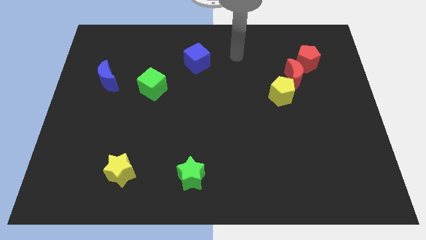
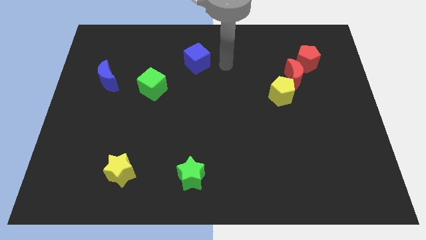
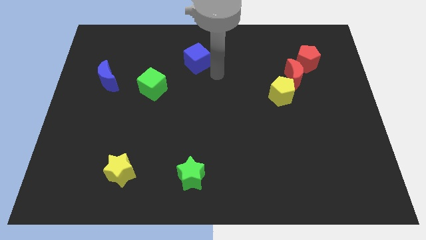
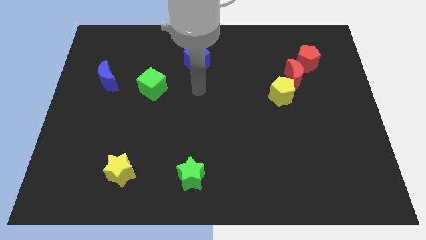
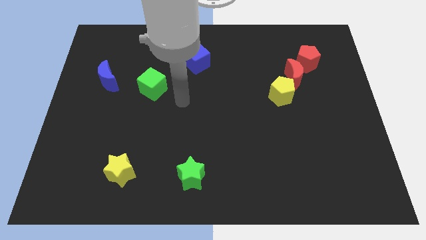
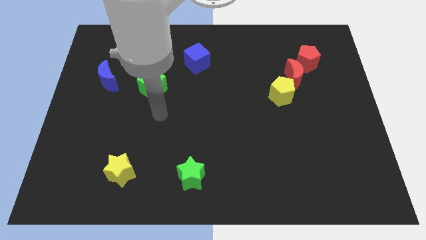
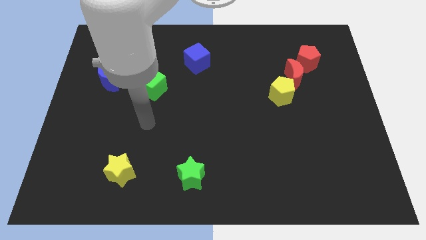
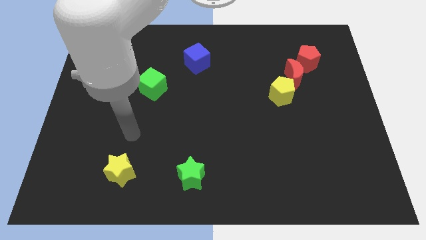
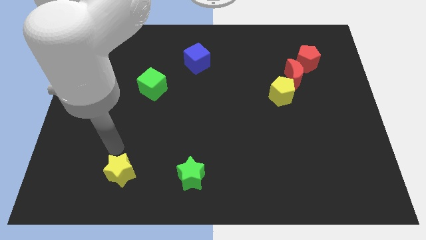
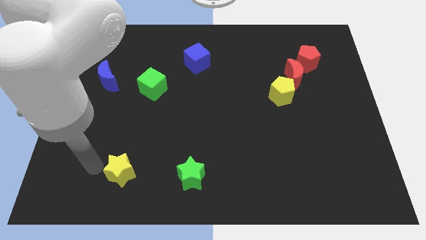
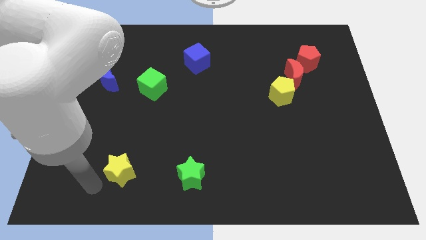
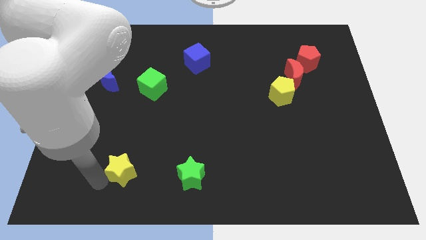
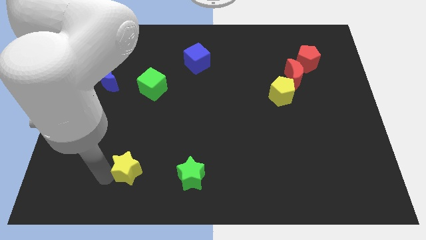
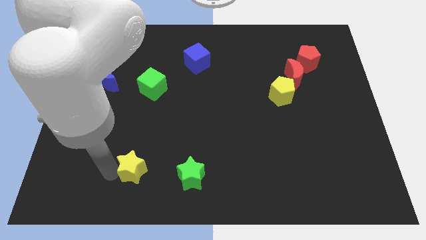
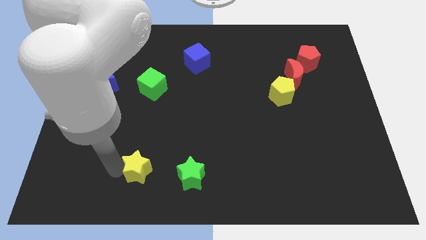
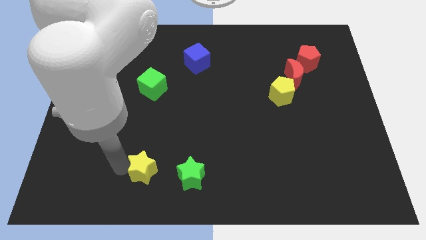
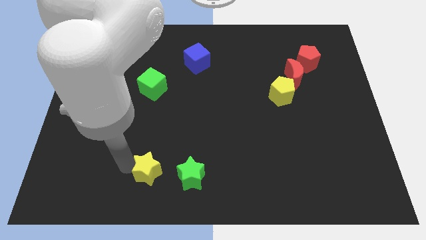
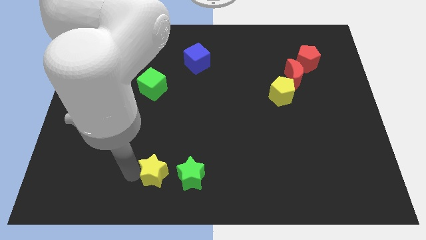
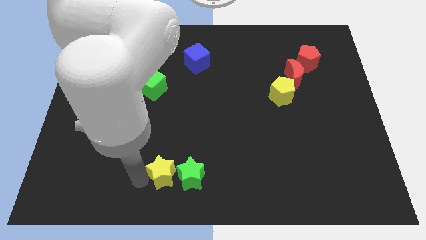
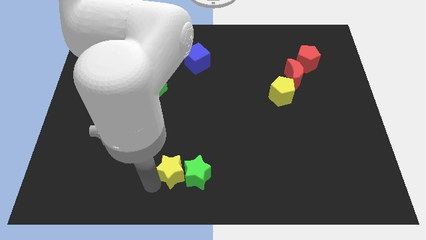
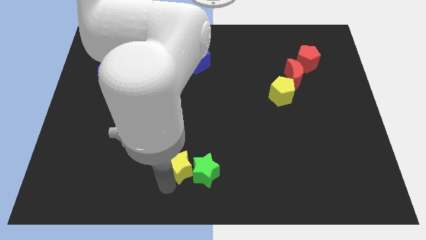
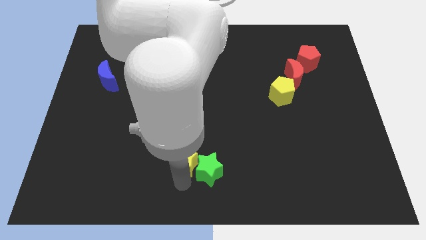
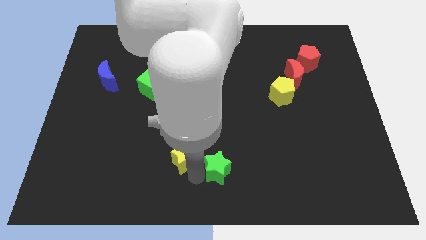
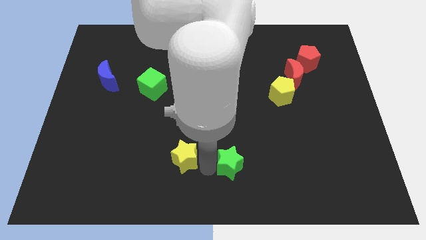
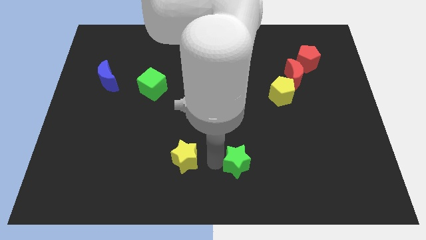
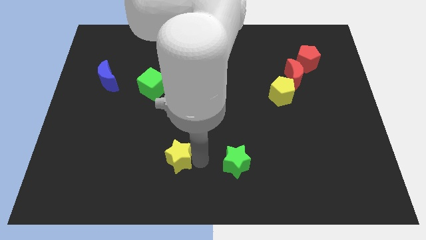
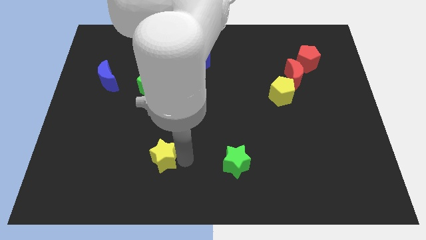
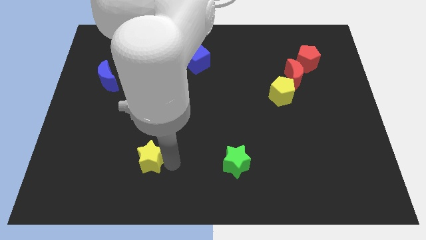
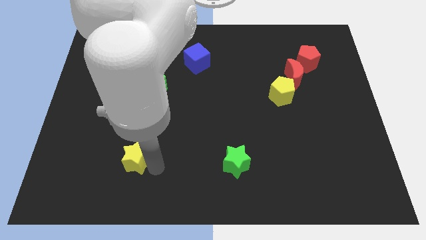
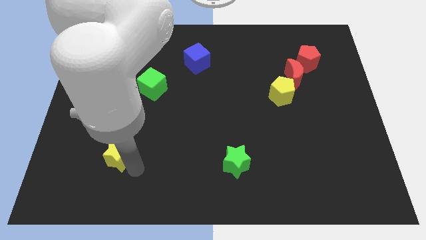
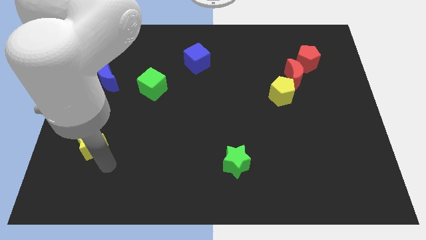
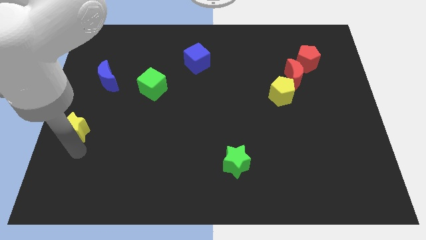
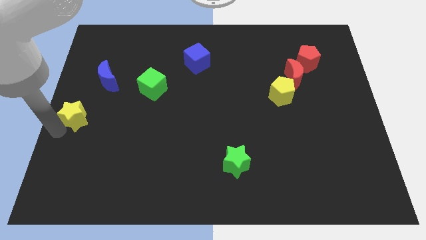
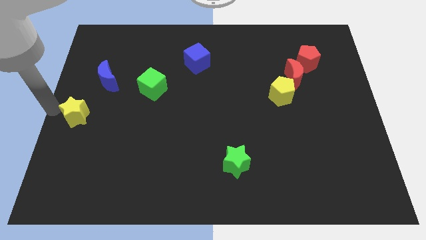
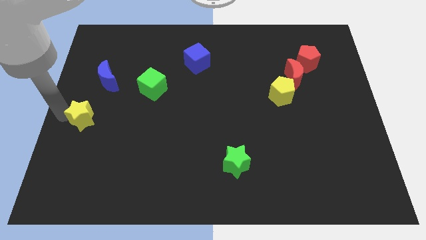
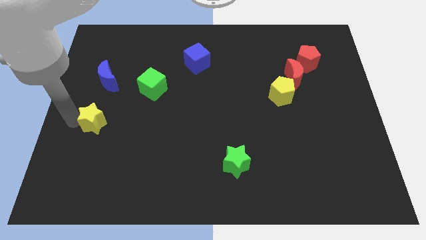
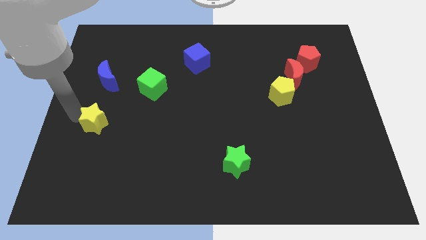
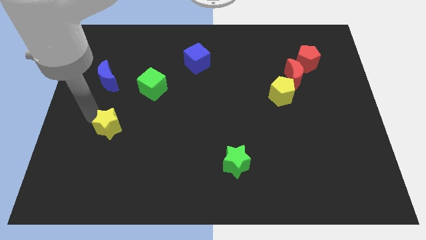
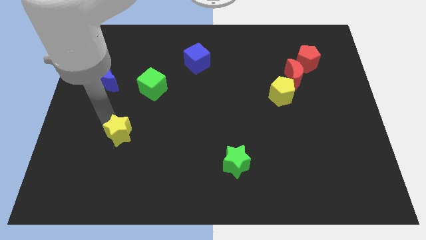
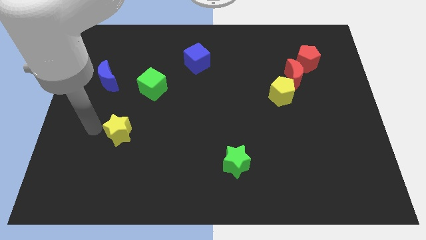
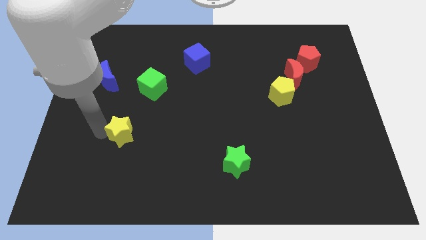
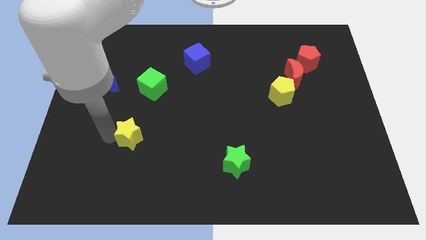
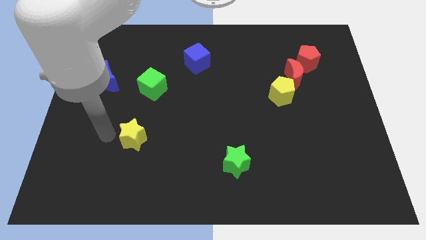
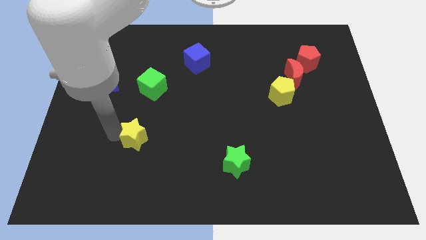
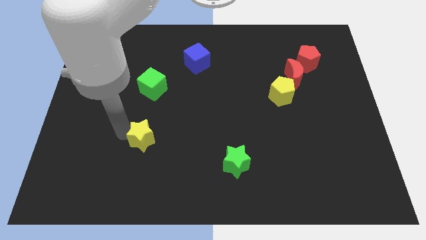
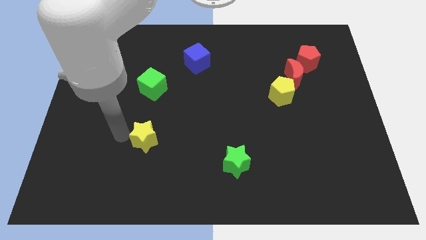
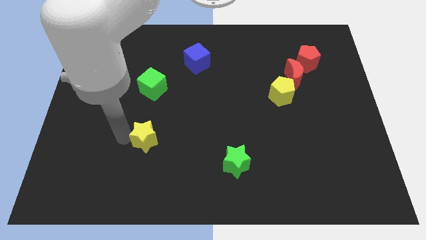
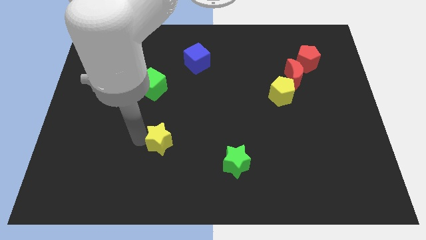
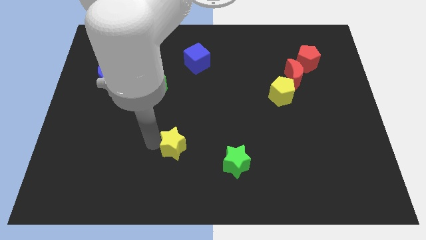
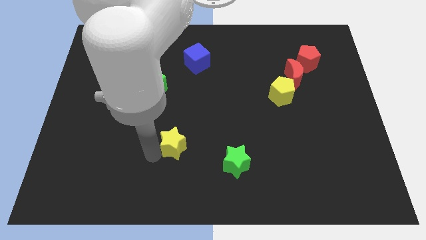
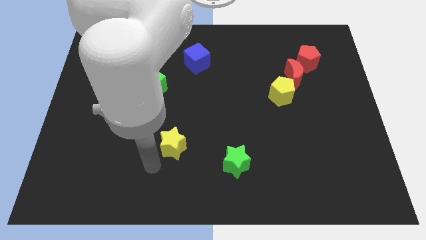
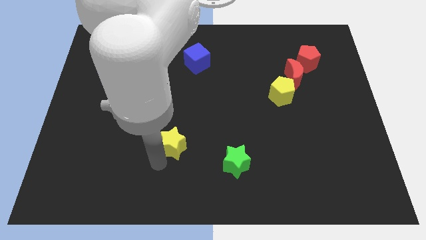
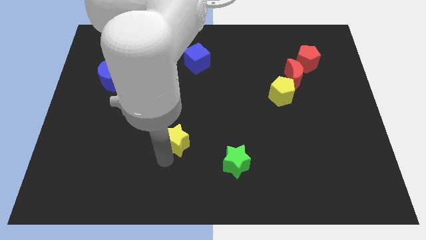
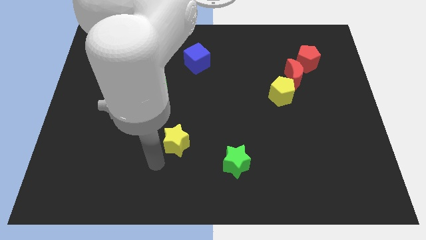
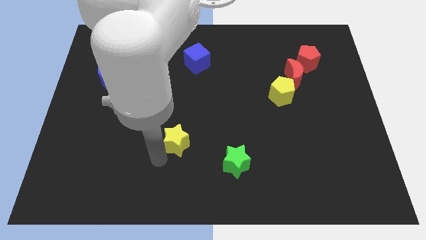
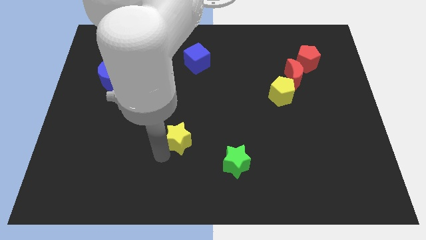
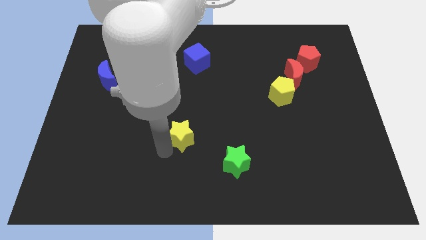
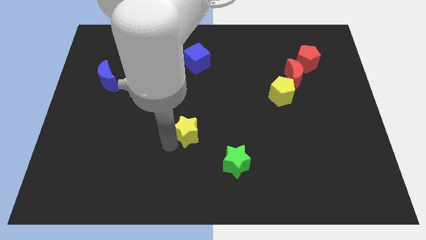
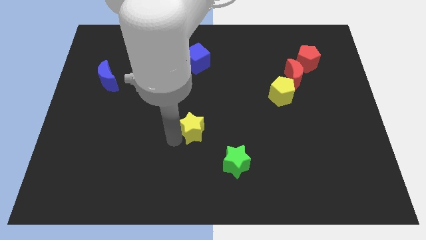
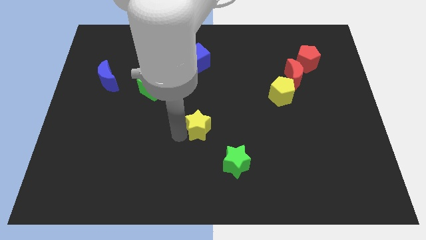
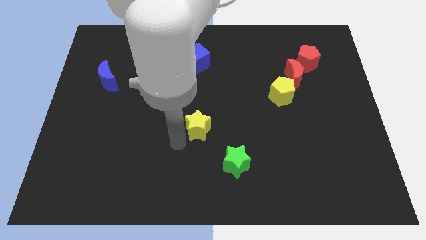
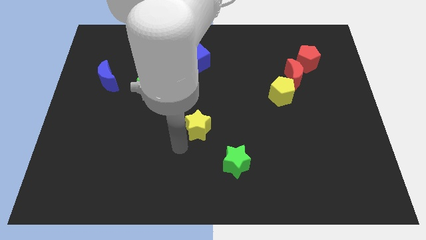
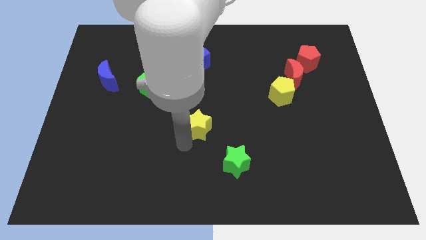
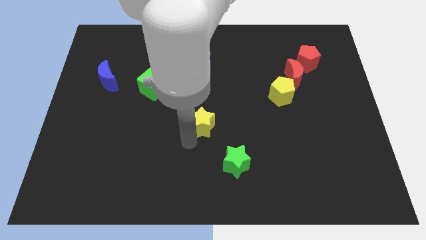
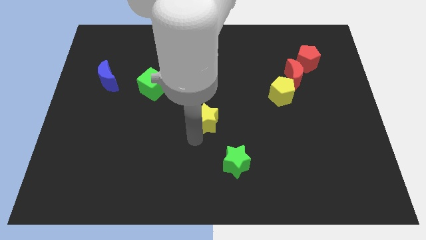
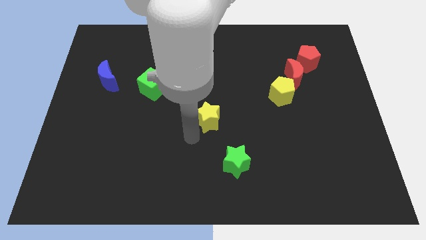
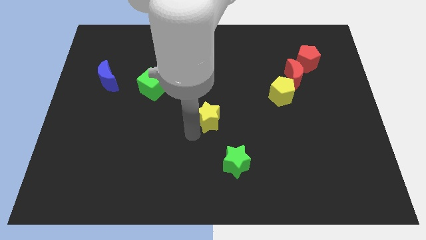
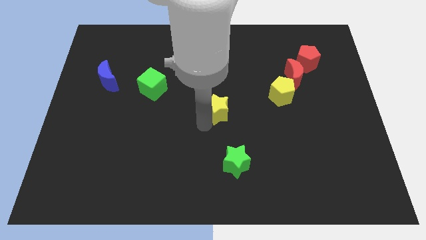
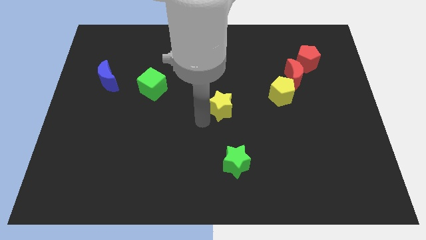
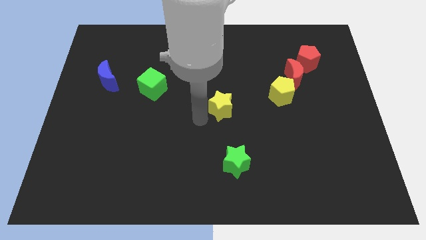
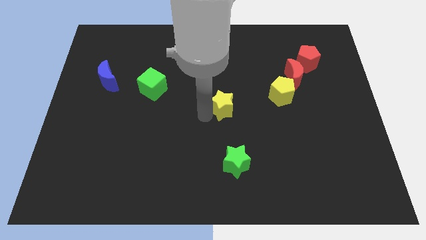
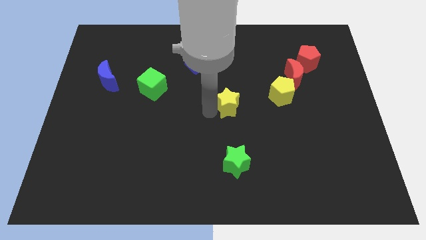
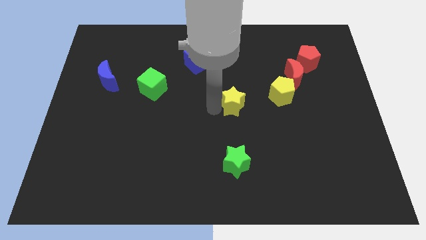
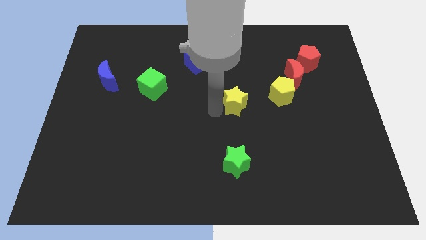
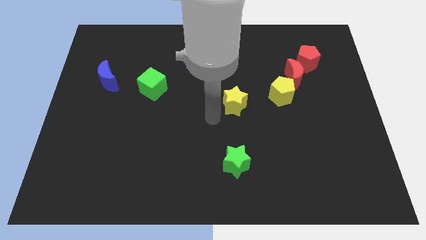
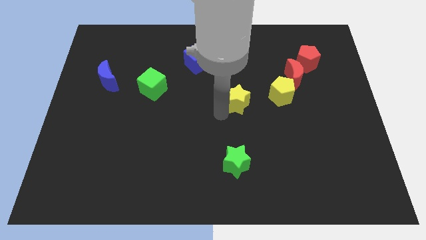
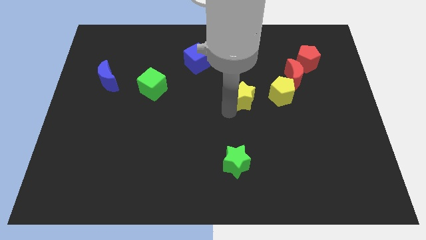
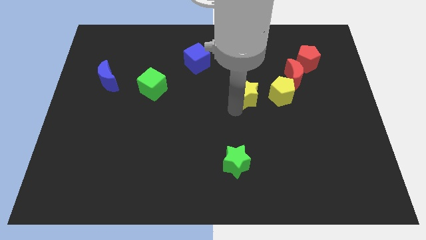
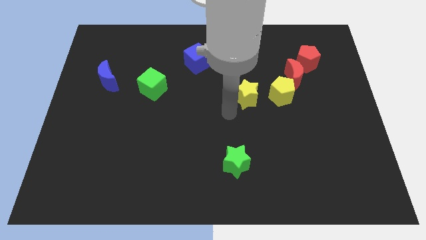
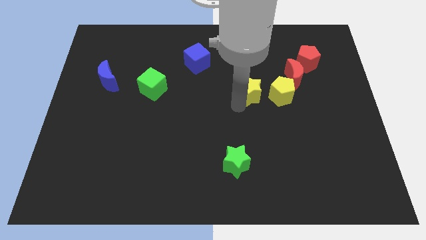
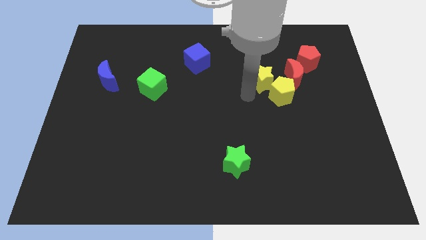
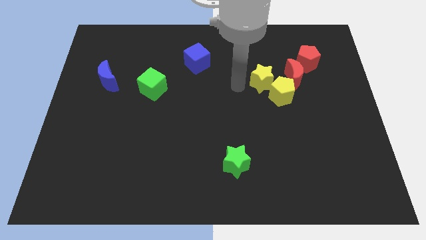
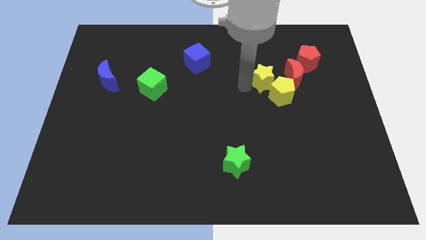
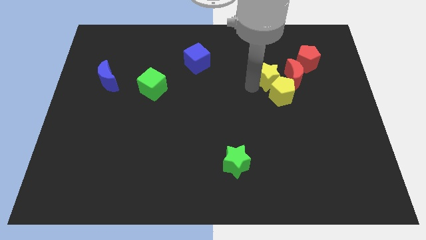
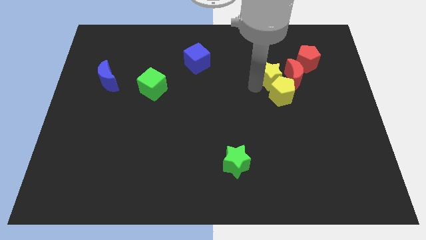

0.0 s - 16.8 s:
move the yellow star close to the red moon
